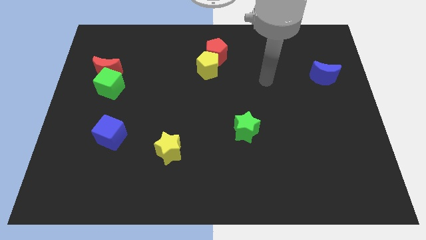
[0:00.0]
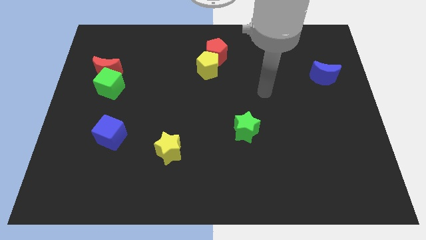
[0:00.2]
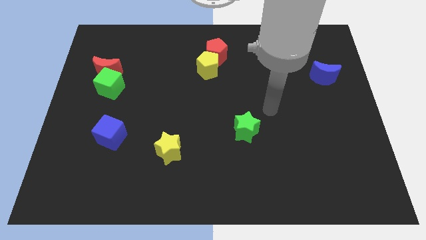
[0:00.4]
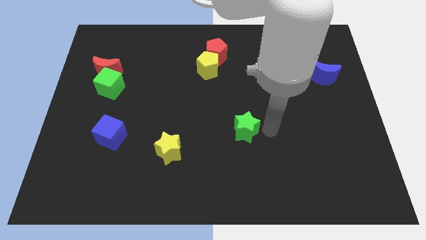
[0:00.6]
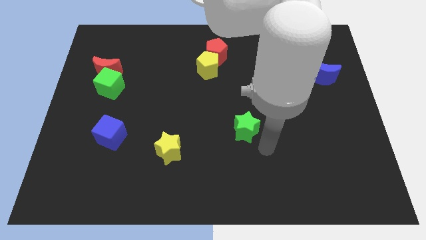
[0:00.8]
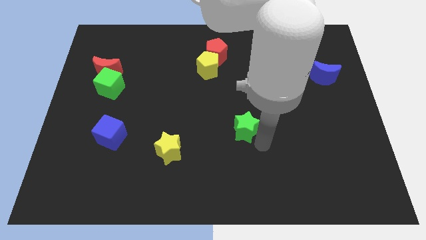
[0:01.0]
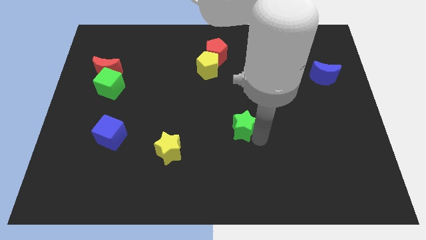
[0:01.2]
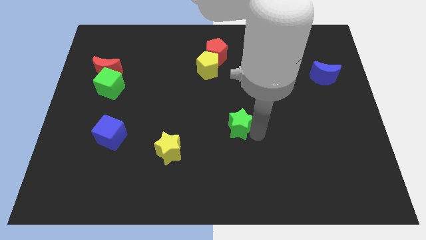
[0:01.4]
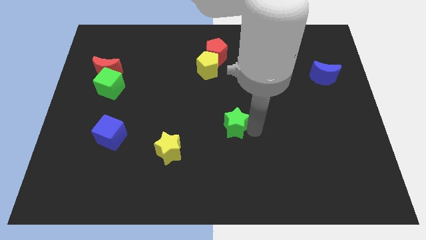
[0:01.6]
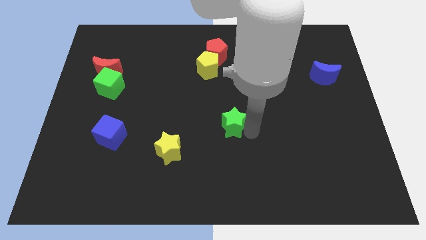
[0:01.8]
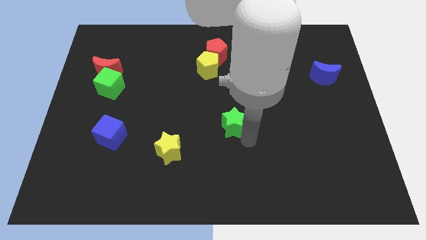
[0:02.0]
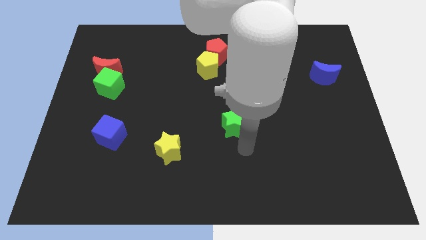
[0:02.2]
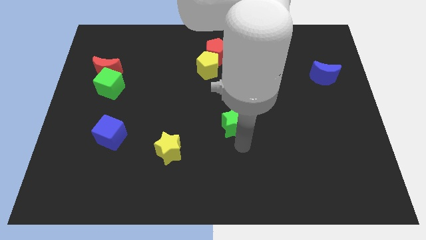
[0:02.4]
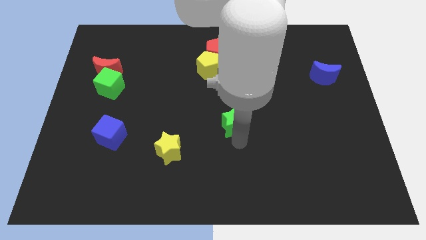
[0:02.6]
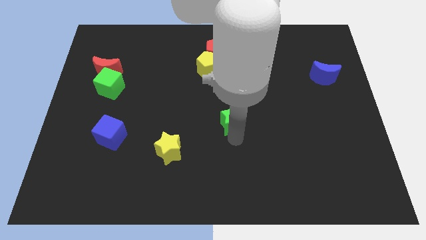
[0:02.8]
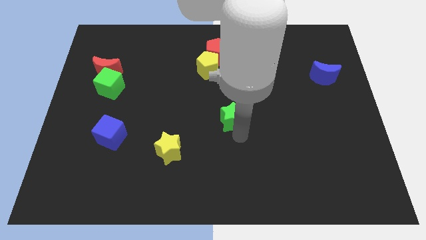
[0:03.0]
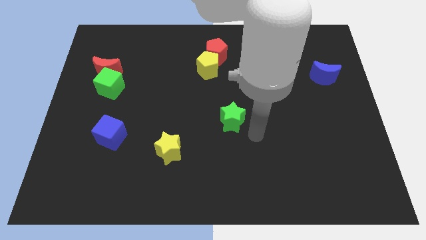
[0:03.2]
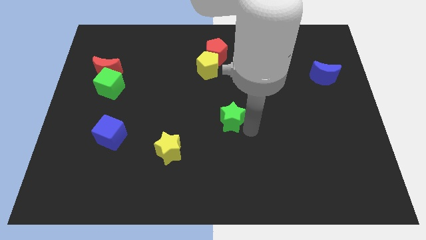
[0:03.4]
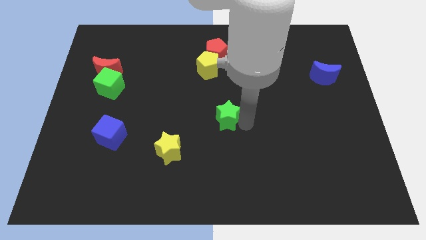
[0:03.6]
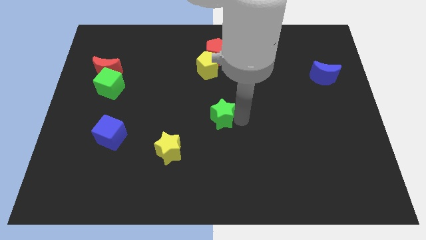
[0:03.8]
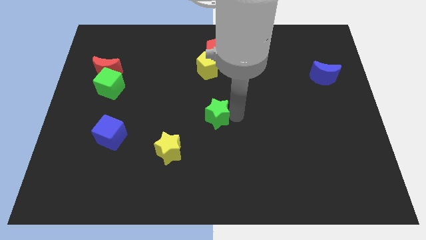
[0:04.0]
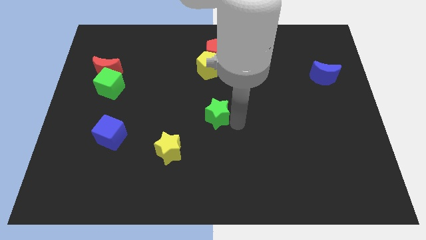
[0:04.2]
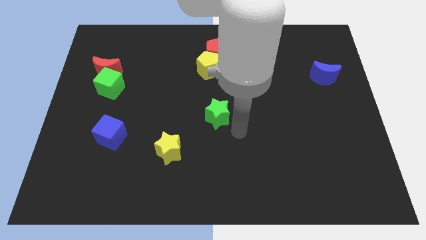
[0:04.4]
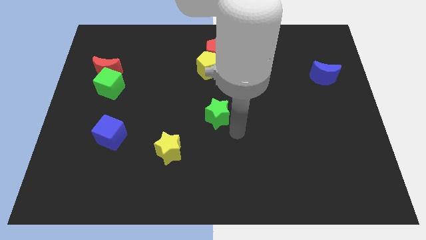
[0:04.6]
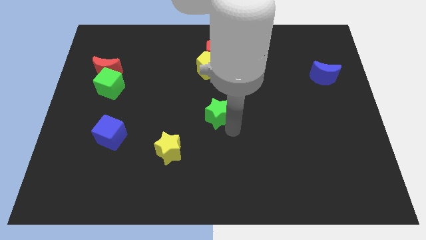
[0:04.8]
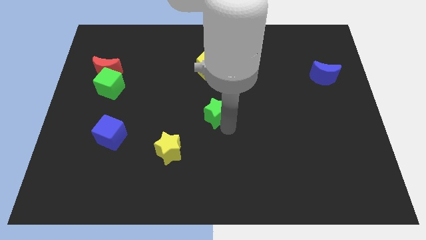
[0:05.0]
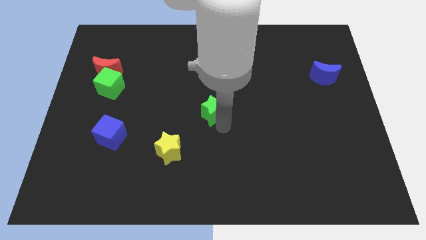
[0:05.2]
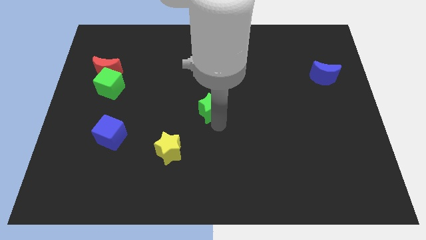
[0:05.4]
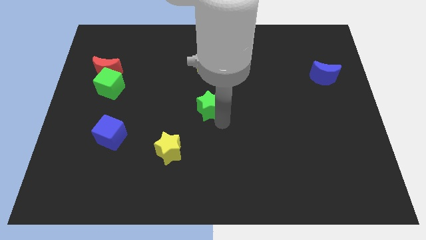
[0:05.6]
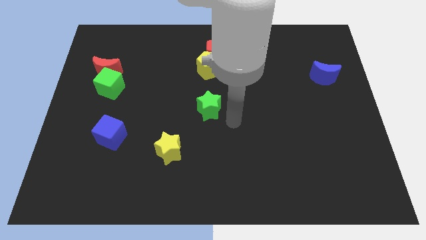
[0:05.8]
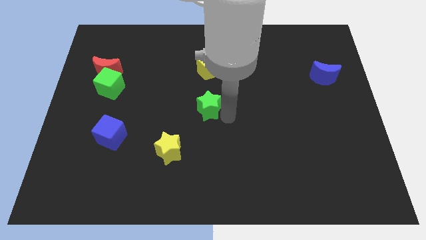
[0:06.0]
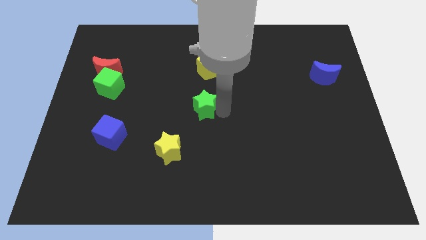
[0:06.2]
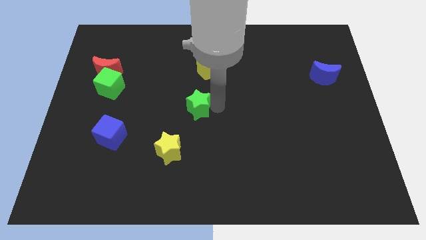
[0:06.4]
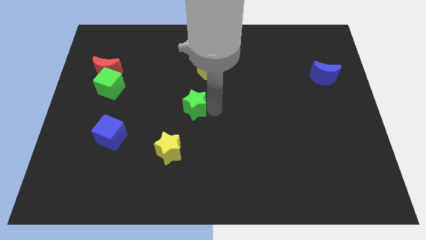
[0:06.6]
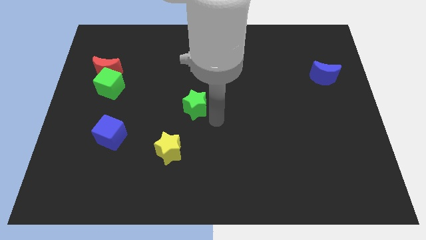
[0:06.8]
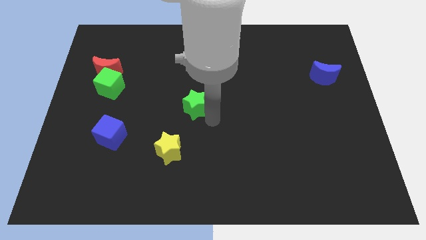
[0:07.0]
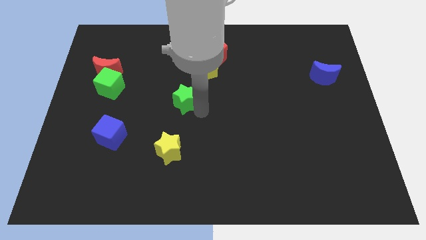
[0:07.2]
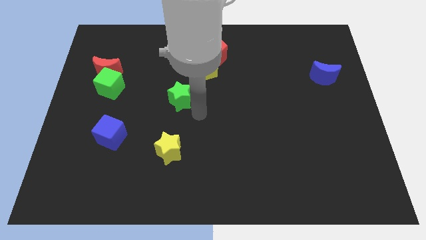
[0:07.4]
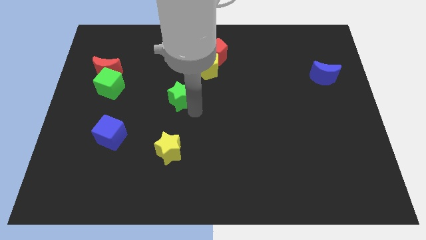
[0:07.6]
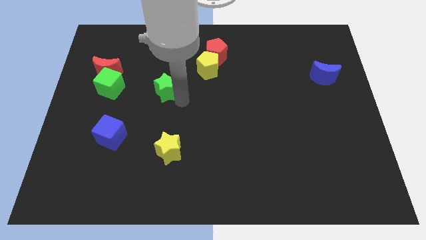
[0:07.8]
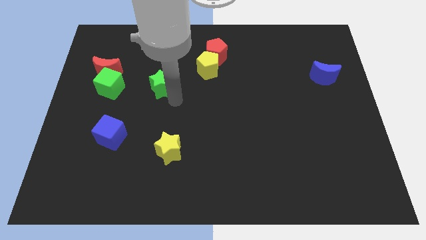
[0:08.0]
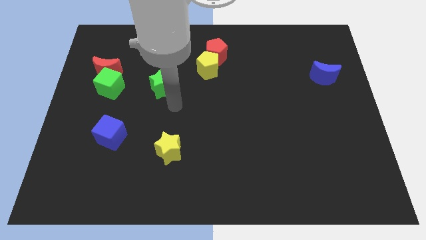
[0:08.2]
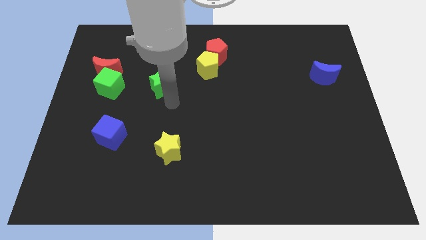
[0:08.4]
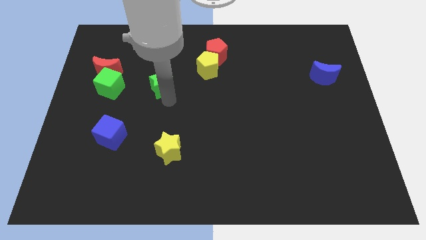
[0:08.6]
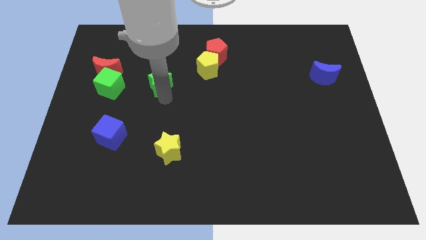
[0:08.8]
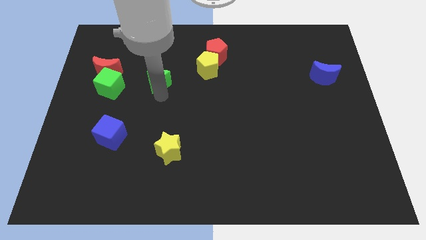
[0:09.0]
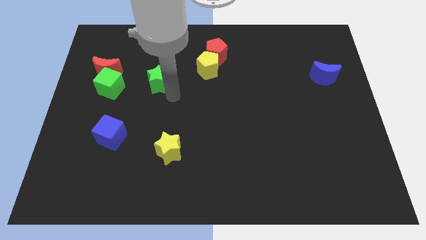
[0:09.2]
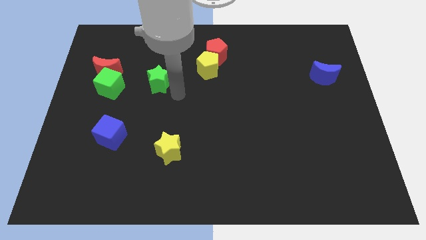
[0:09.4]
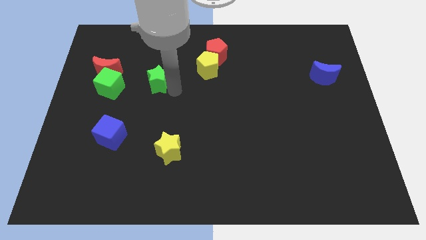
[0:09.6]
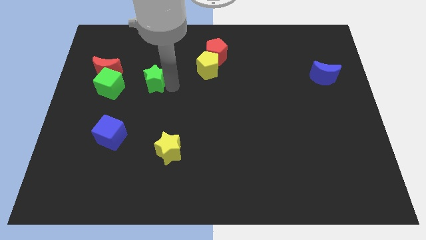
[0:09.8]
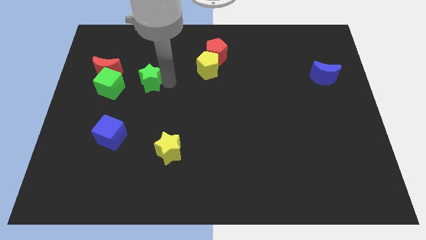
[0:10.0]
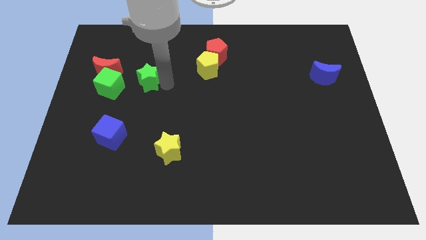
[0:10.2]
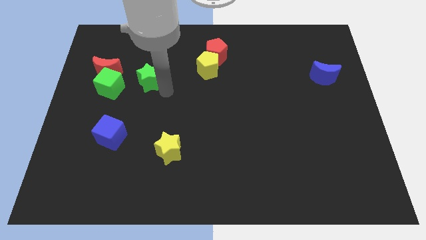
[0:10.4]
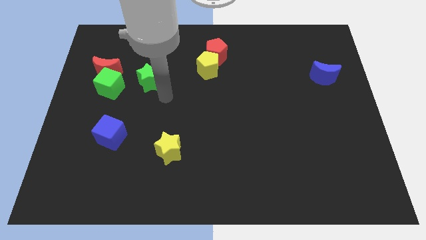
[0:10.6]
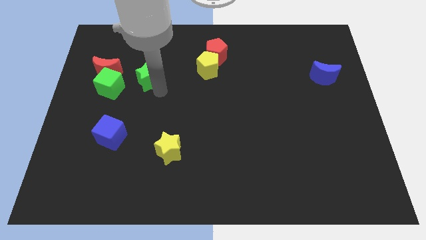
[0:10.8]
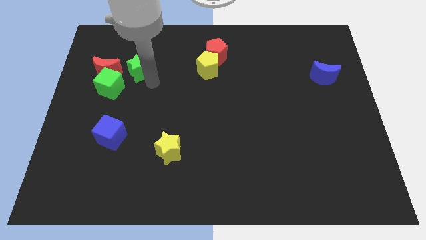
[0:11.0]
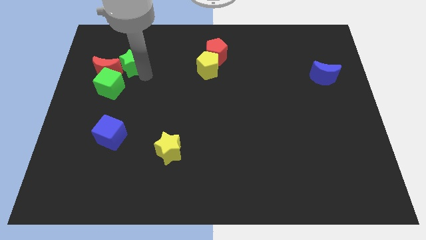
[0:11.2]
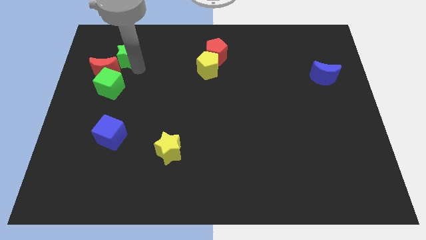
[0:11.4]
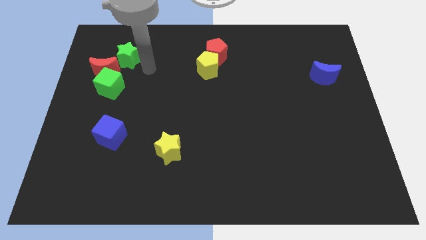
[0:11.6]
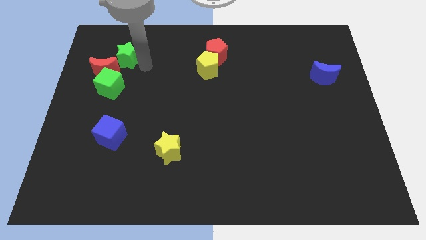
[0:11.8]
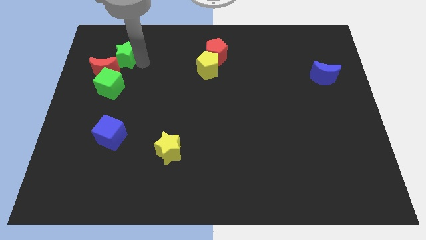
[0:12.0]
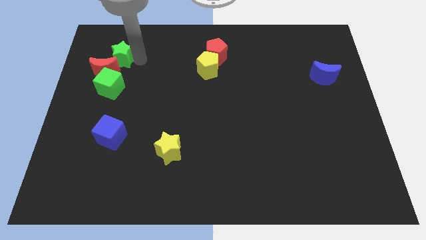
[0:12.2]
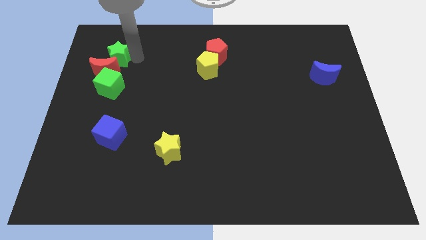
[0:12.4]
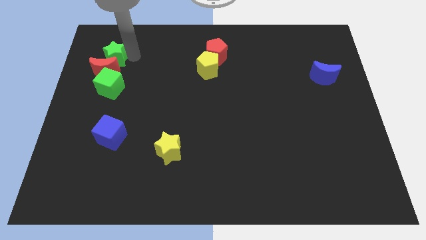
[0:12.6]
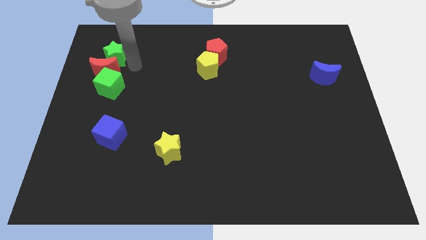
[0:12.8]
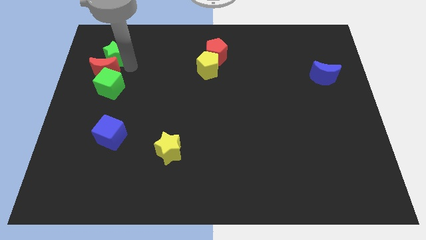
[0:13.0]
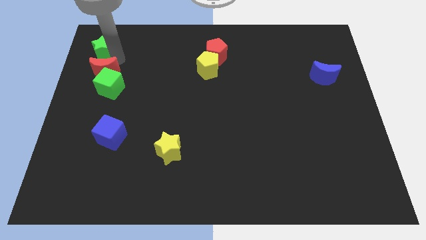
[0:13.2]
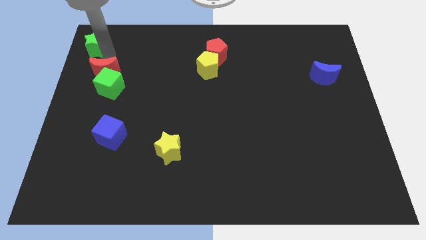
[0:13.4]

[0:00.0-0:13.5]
slide the green star to the top left of the board
